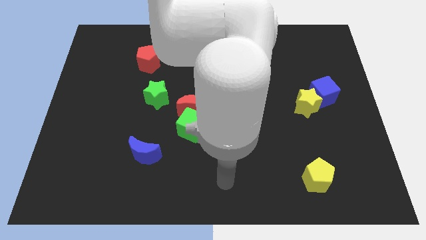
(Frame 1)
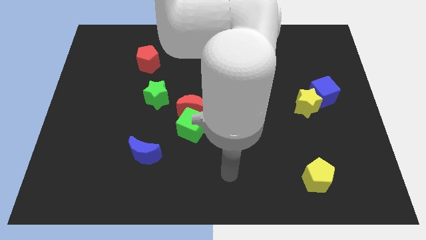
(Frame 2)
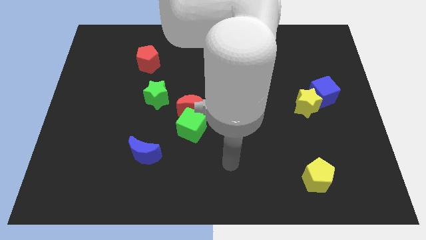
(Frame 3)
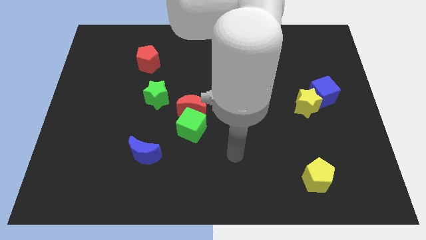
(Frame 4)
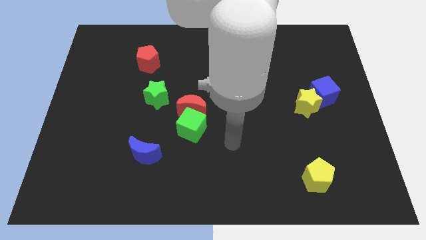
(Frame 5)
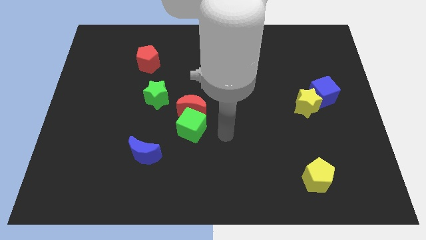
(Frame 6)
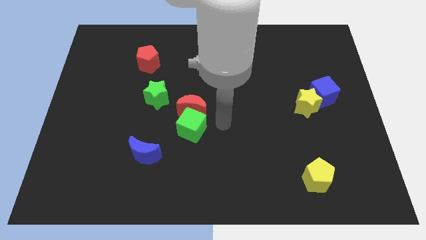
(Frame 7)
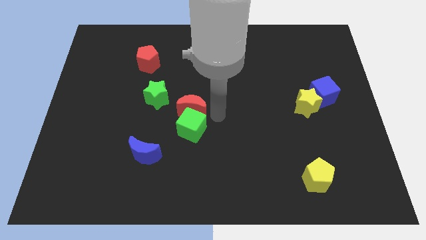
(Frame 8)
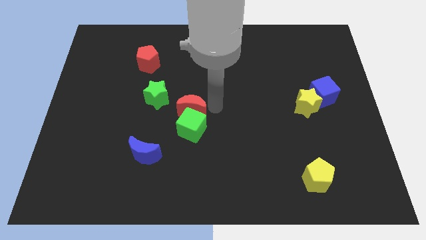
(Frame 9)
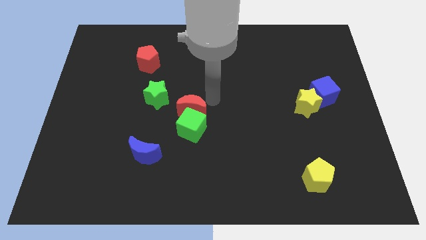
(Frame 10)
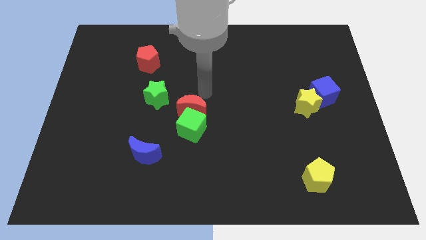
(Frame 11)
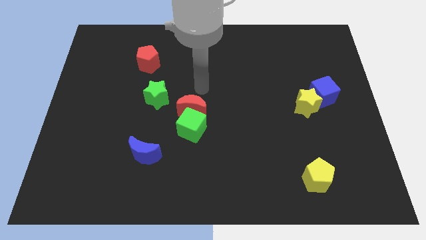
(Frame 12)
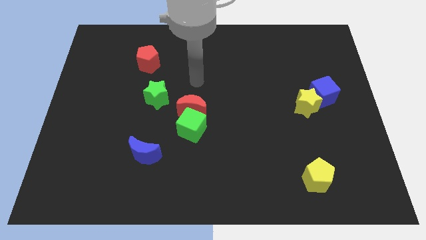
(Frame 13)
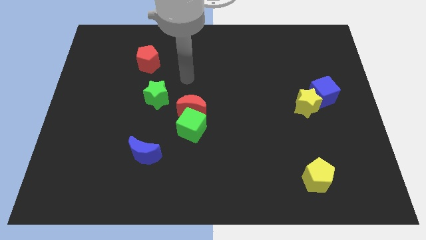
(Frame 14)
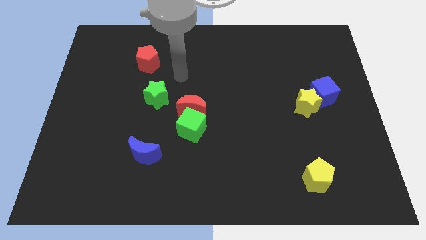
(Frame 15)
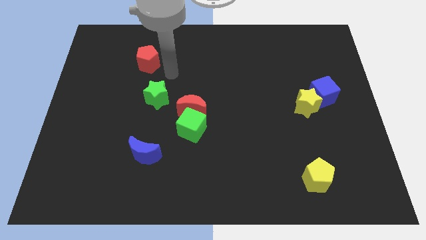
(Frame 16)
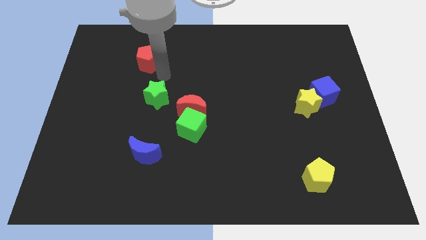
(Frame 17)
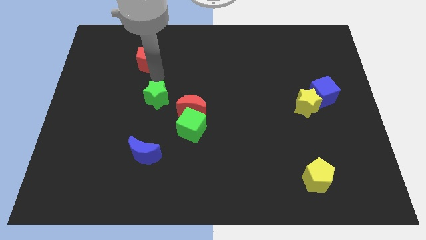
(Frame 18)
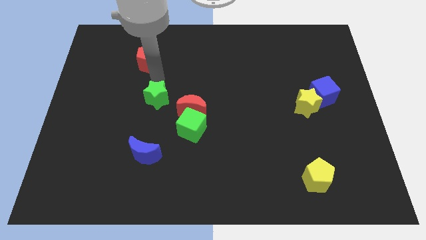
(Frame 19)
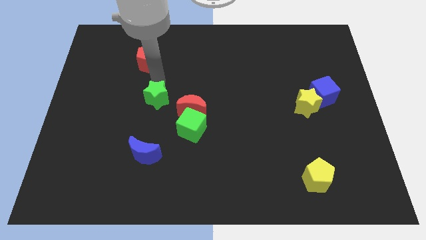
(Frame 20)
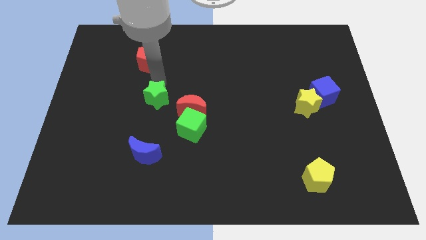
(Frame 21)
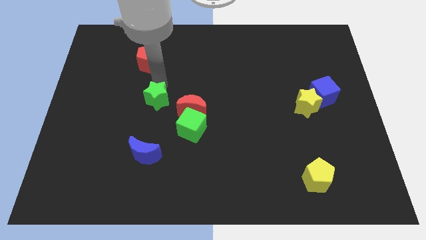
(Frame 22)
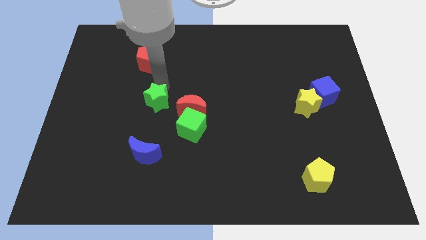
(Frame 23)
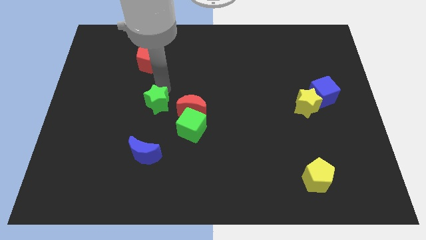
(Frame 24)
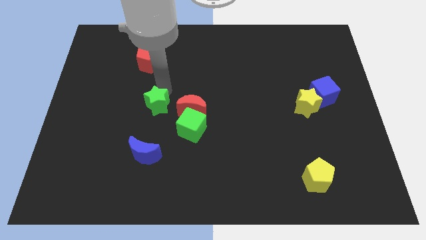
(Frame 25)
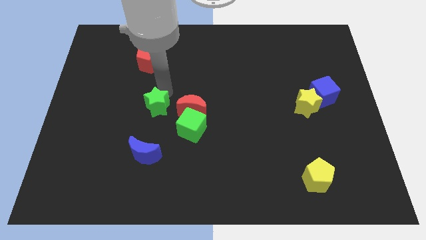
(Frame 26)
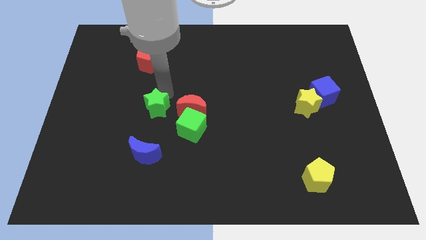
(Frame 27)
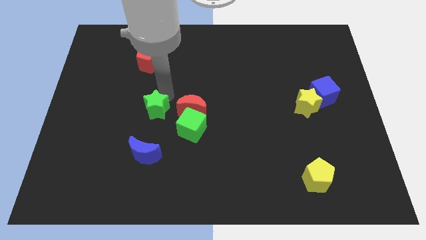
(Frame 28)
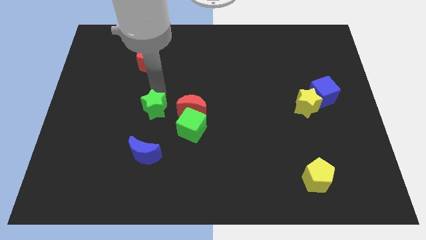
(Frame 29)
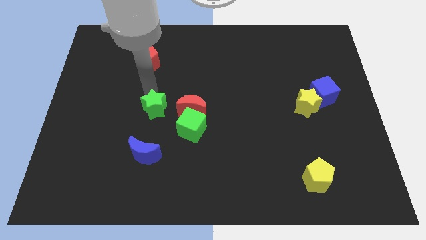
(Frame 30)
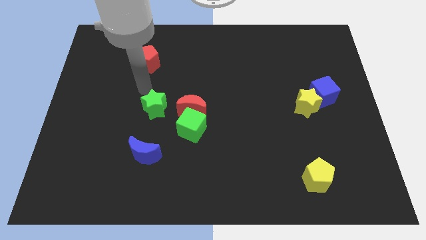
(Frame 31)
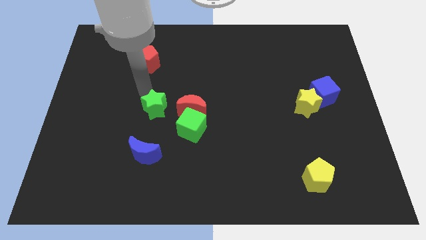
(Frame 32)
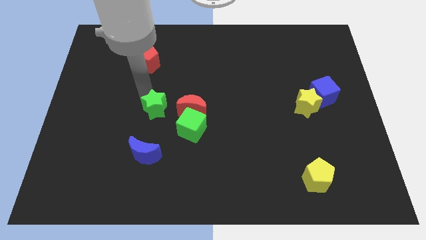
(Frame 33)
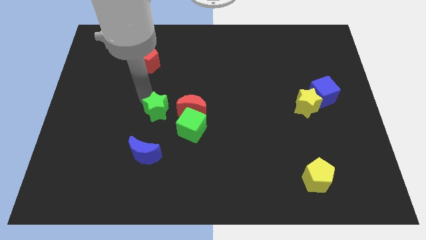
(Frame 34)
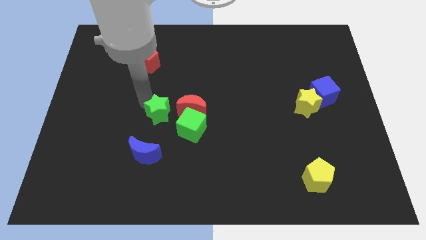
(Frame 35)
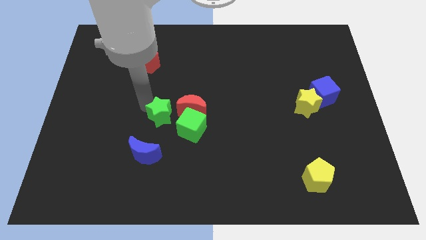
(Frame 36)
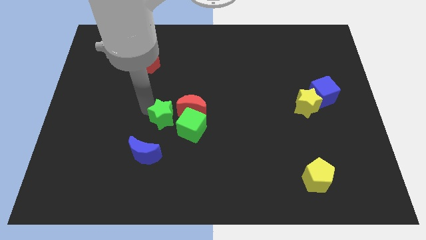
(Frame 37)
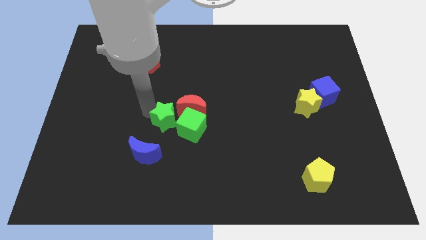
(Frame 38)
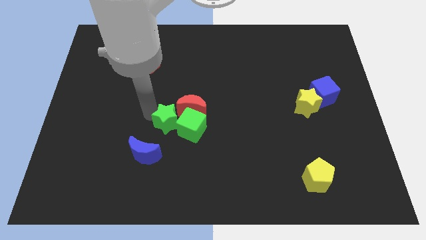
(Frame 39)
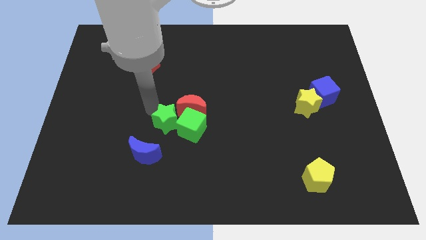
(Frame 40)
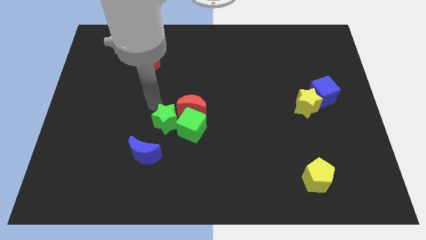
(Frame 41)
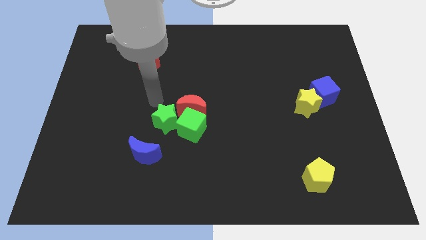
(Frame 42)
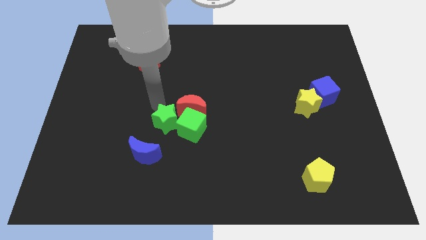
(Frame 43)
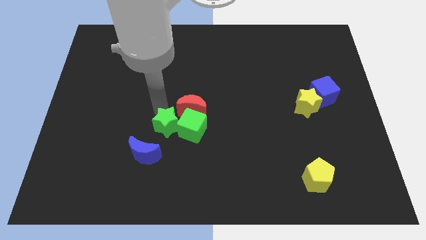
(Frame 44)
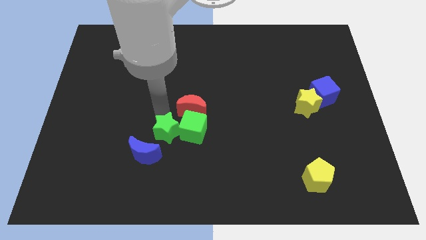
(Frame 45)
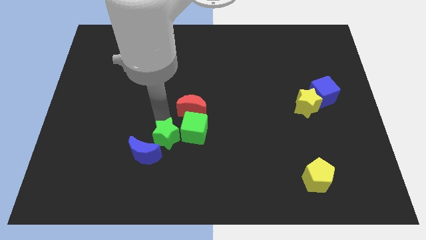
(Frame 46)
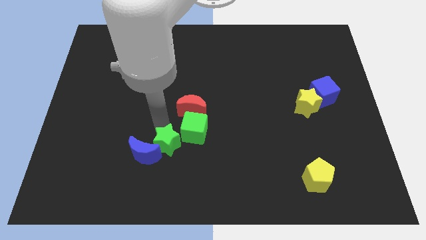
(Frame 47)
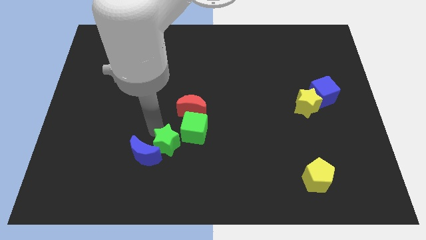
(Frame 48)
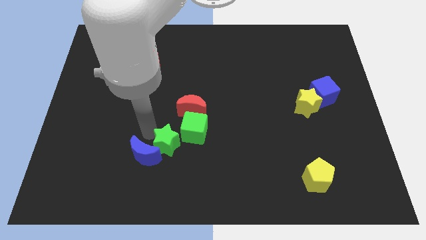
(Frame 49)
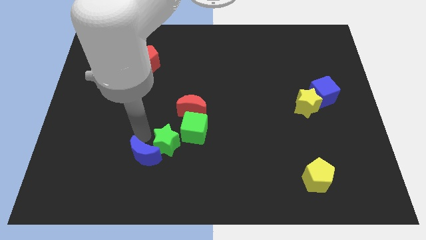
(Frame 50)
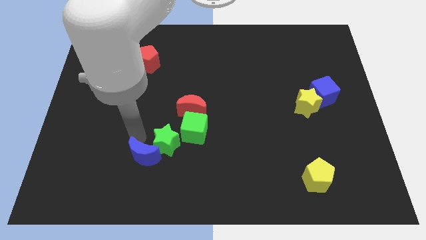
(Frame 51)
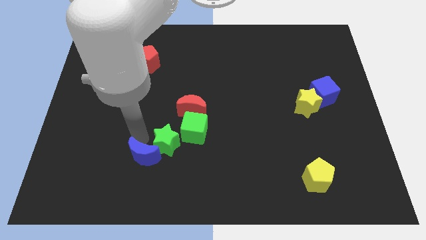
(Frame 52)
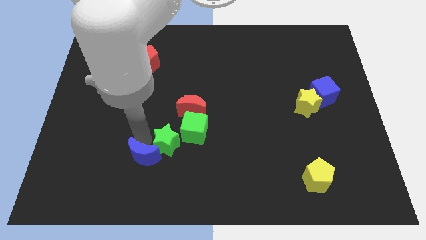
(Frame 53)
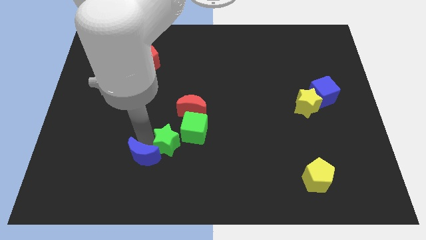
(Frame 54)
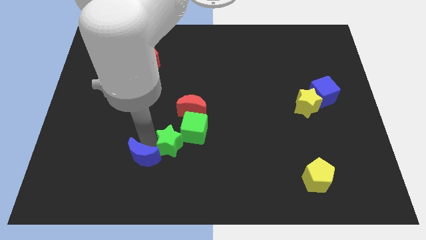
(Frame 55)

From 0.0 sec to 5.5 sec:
push the green star to the bottom side of the red moon

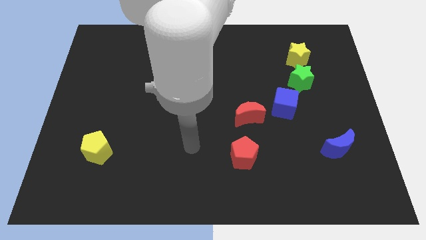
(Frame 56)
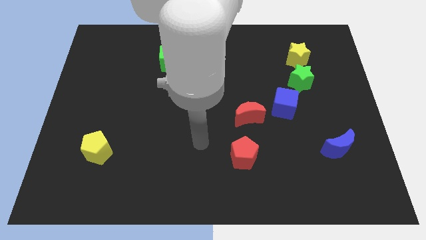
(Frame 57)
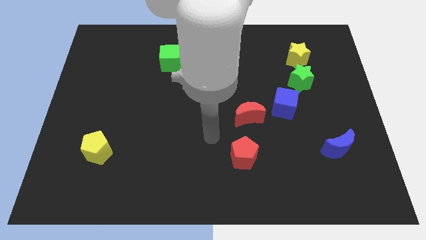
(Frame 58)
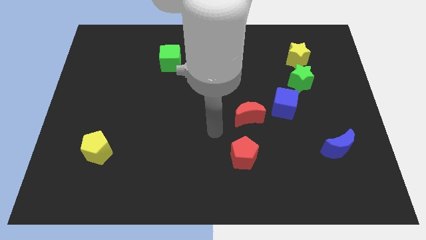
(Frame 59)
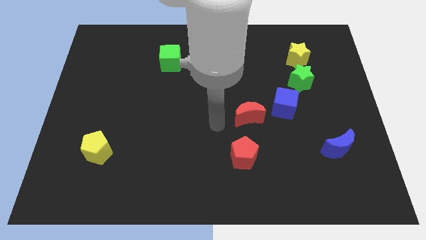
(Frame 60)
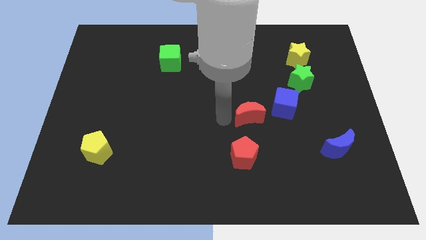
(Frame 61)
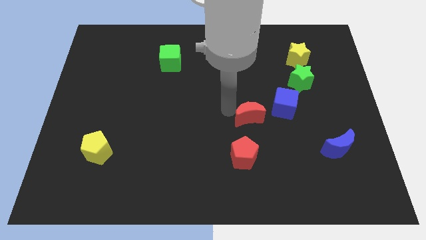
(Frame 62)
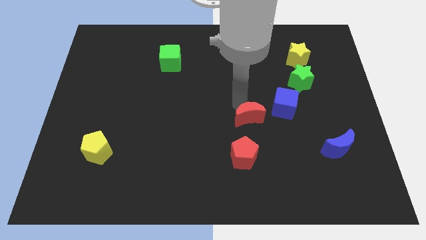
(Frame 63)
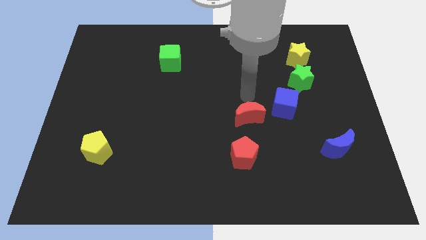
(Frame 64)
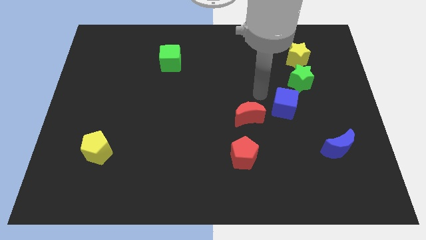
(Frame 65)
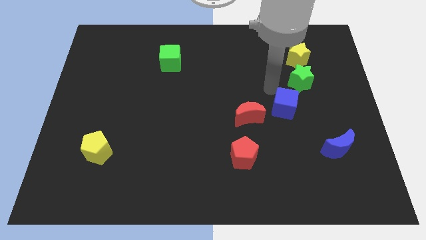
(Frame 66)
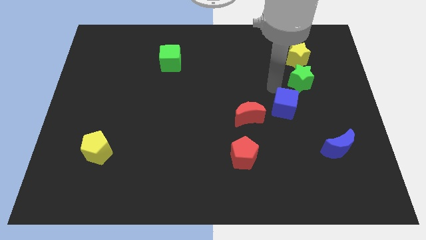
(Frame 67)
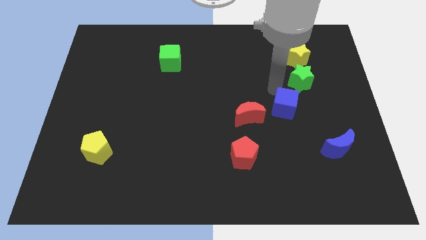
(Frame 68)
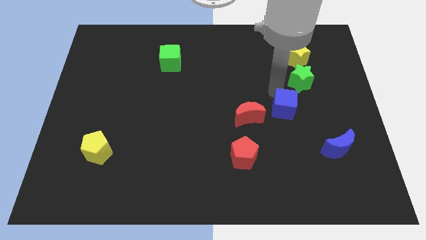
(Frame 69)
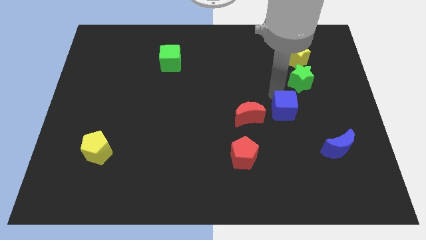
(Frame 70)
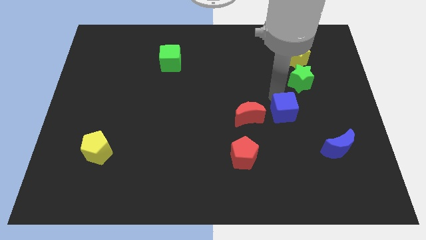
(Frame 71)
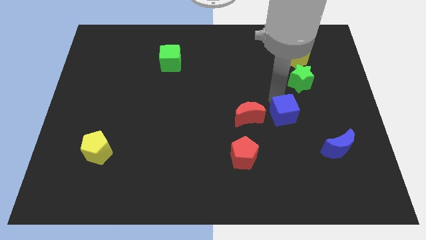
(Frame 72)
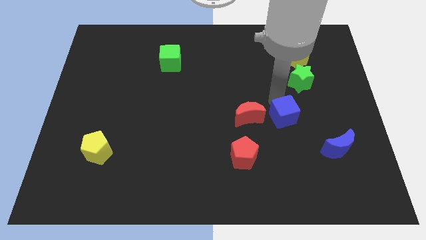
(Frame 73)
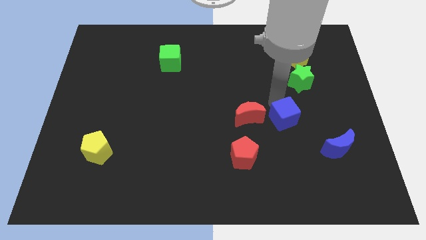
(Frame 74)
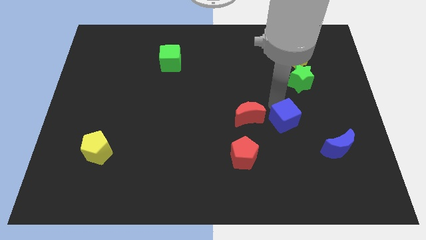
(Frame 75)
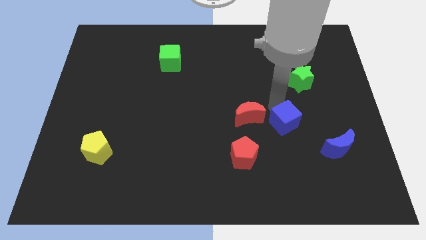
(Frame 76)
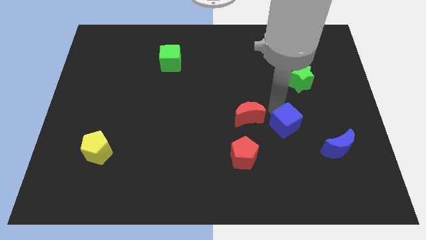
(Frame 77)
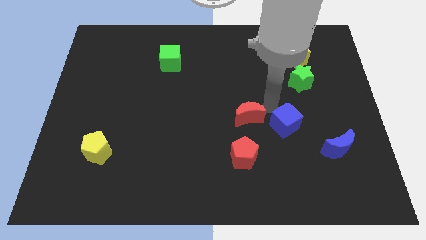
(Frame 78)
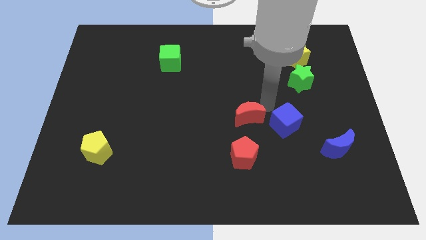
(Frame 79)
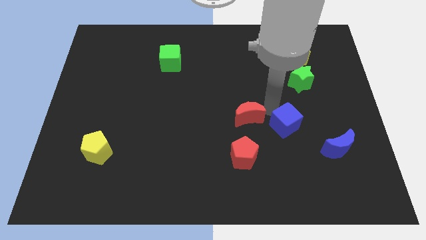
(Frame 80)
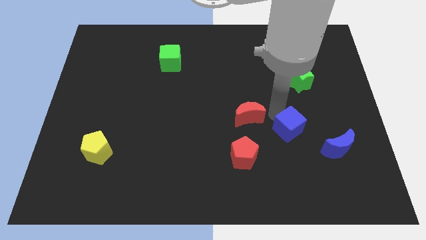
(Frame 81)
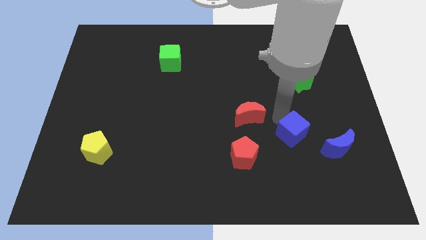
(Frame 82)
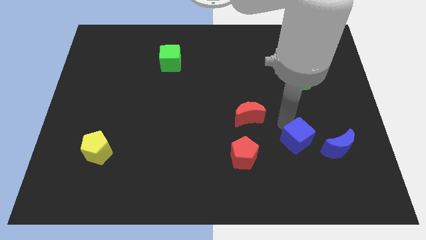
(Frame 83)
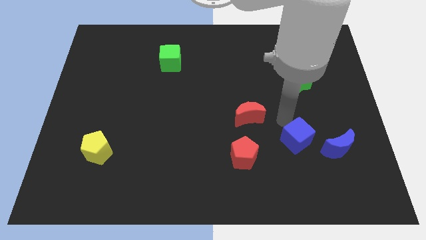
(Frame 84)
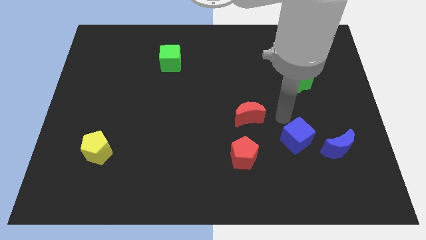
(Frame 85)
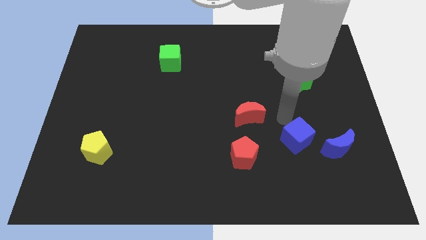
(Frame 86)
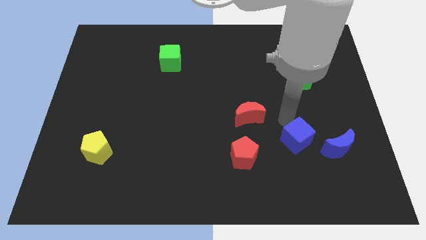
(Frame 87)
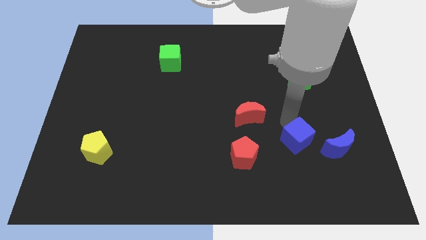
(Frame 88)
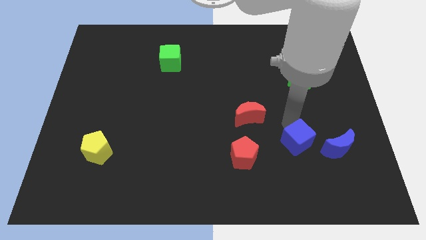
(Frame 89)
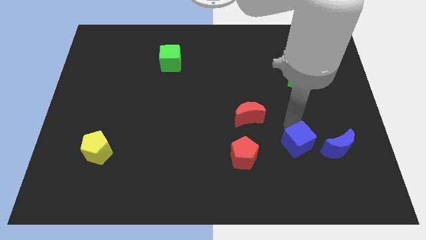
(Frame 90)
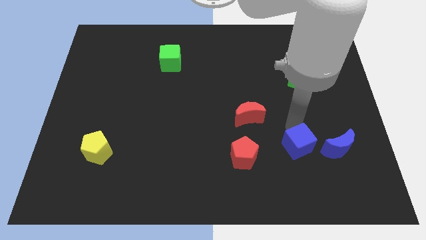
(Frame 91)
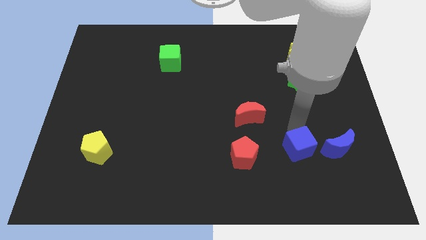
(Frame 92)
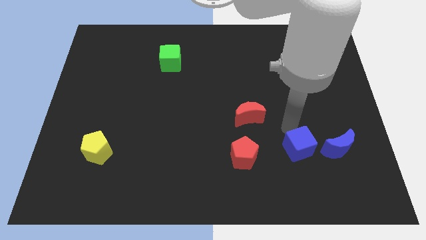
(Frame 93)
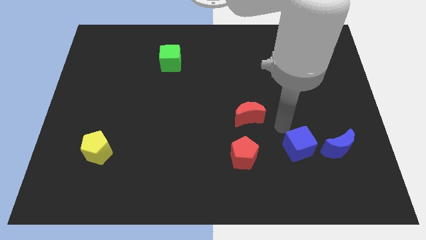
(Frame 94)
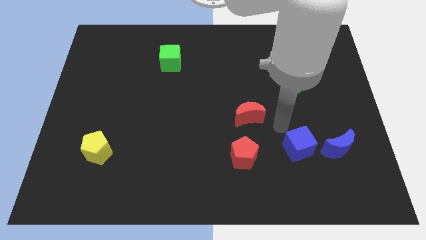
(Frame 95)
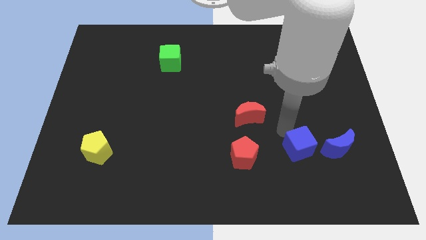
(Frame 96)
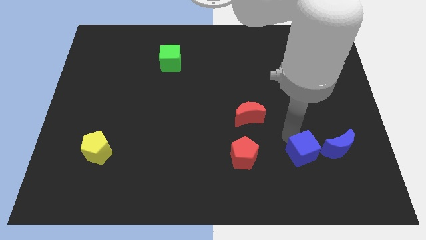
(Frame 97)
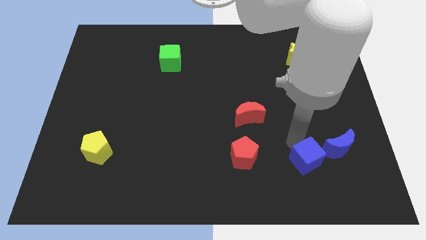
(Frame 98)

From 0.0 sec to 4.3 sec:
put the blue cube to the bottom left side of the blue moon
